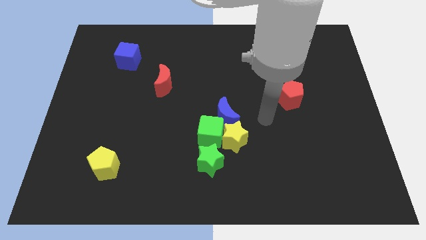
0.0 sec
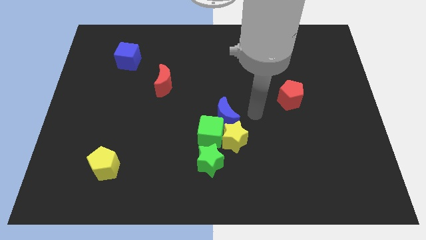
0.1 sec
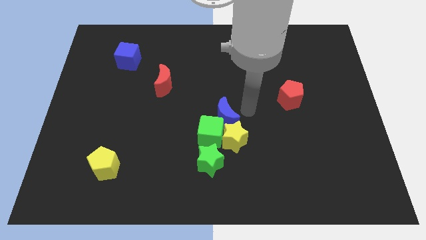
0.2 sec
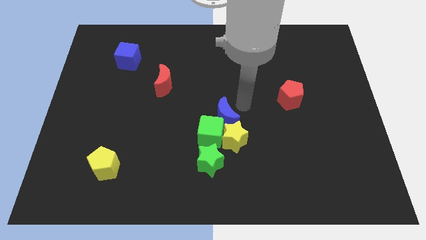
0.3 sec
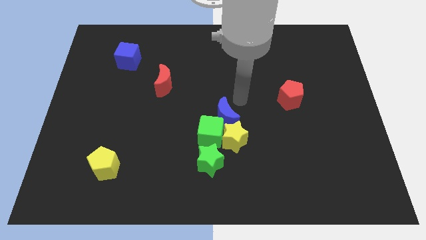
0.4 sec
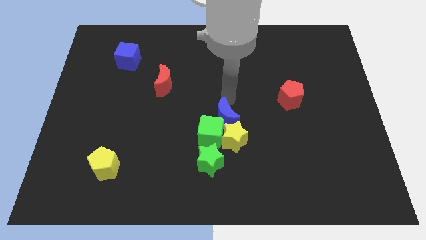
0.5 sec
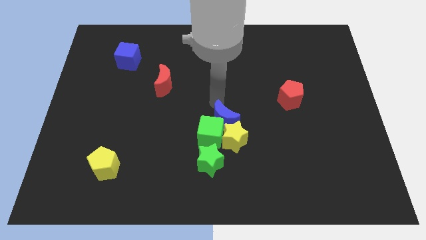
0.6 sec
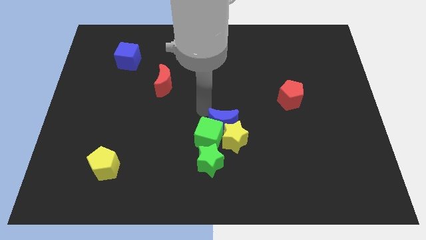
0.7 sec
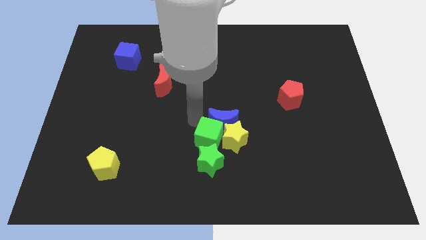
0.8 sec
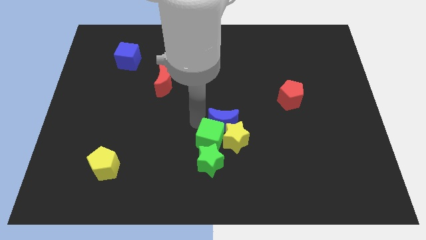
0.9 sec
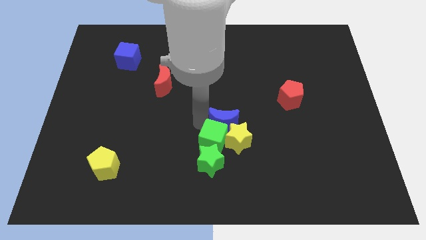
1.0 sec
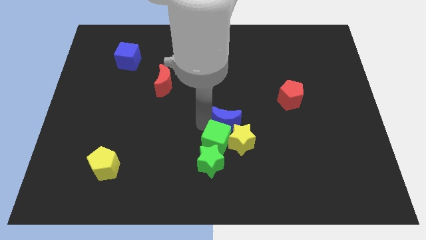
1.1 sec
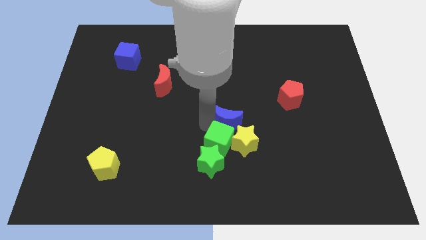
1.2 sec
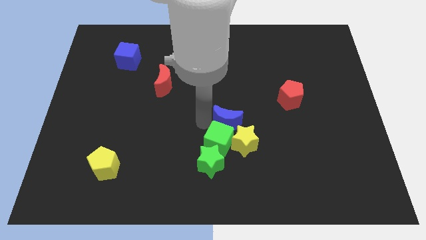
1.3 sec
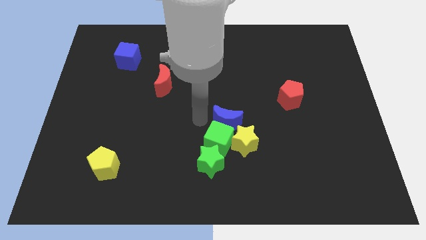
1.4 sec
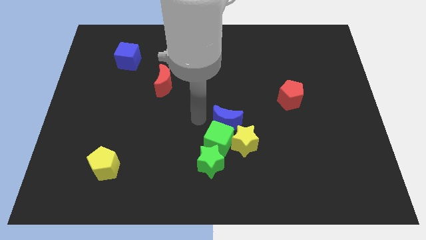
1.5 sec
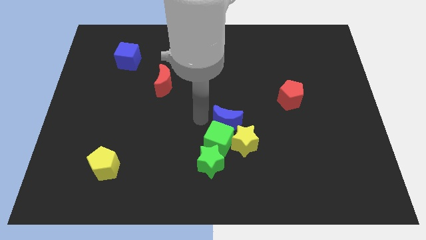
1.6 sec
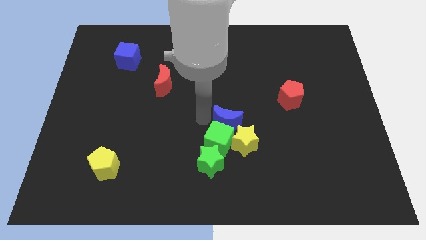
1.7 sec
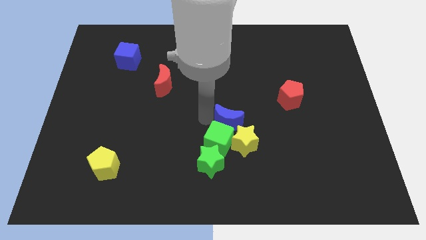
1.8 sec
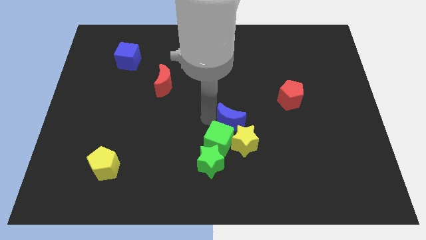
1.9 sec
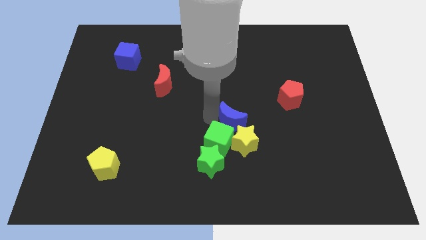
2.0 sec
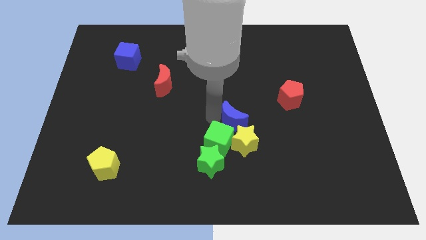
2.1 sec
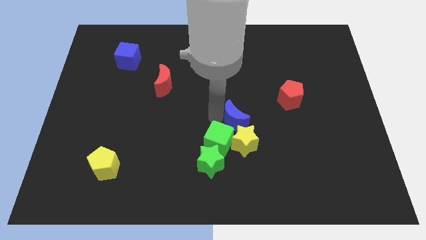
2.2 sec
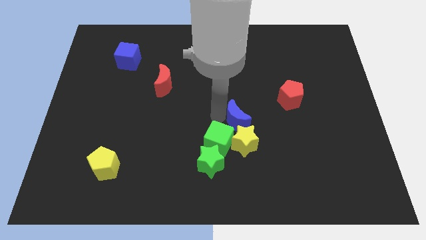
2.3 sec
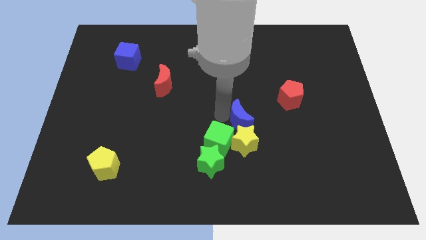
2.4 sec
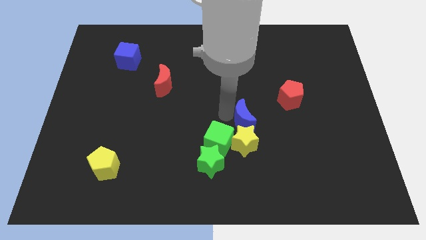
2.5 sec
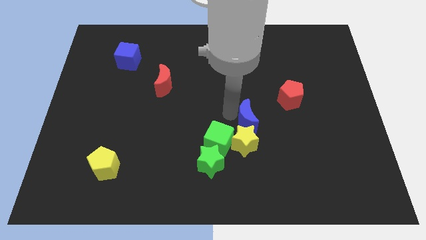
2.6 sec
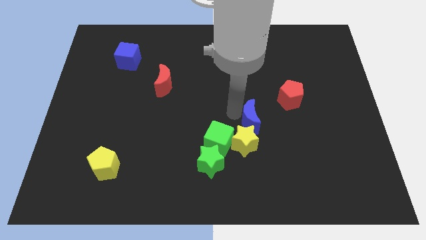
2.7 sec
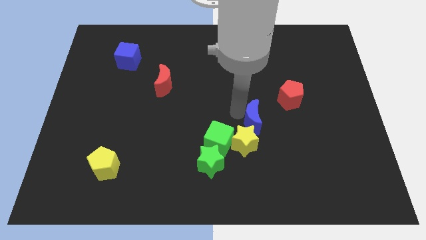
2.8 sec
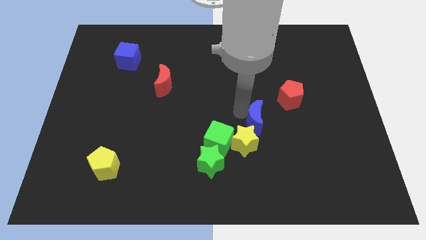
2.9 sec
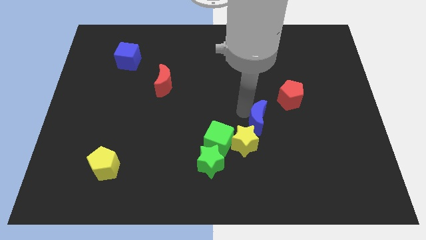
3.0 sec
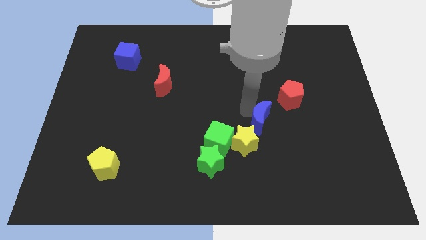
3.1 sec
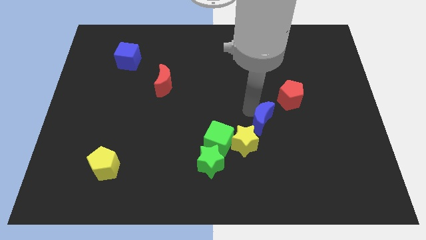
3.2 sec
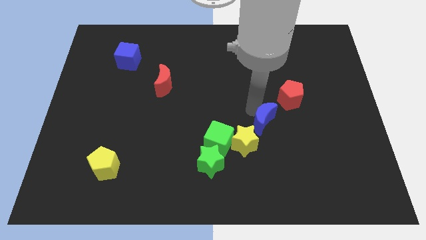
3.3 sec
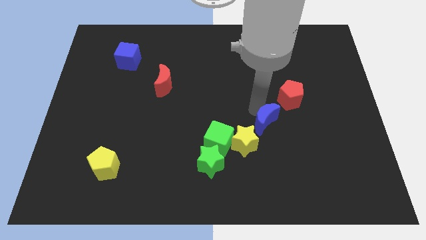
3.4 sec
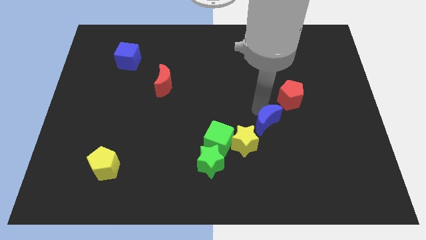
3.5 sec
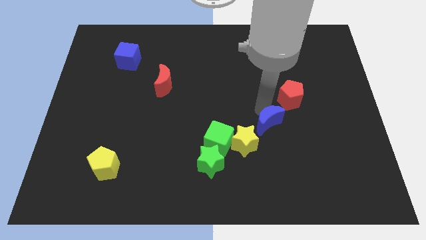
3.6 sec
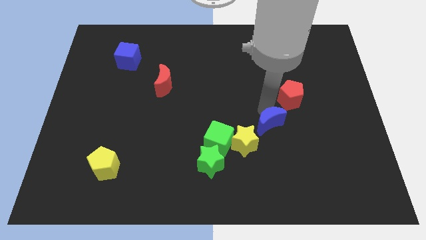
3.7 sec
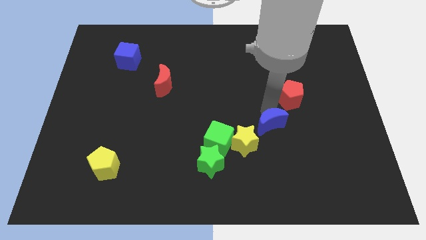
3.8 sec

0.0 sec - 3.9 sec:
slide the blue moon downwards and to the right slightly

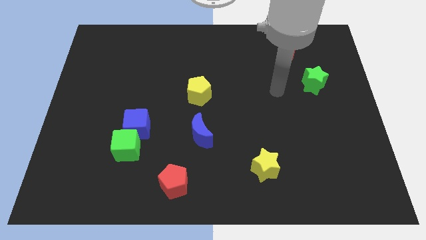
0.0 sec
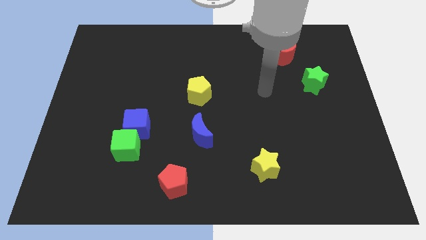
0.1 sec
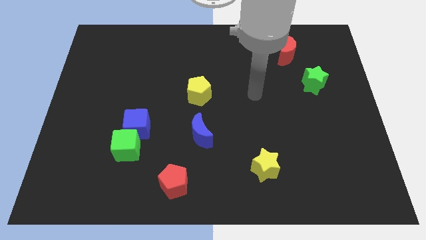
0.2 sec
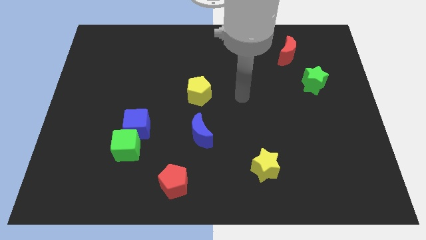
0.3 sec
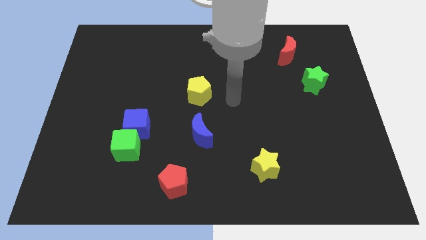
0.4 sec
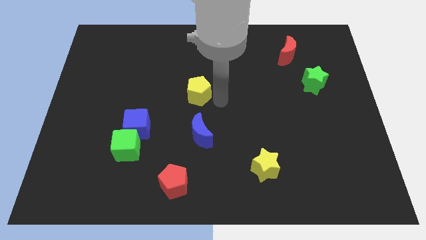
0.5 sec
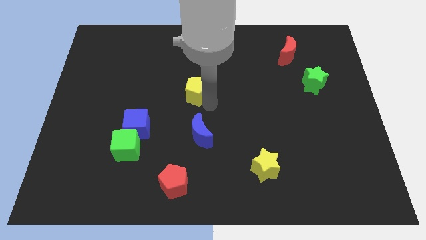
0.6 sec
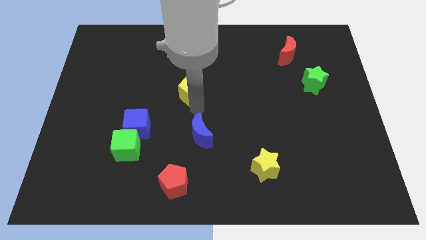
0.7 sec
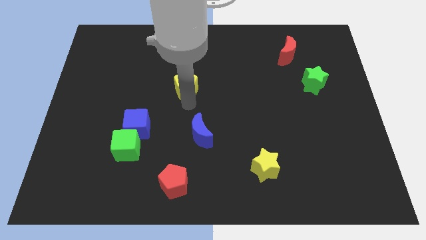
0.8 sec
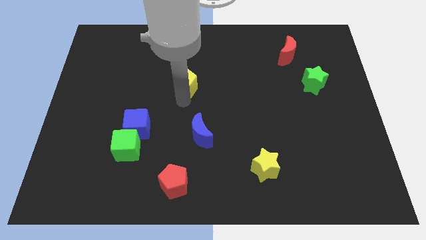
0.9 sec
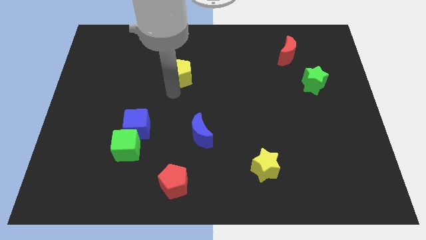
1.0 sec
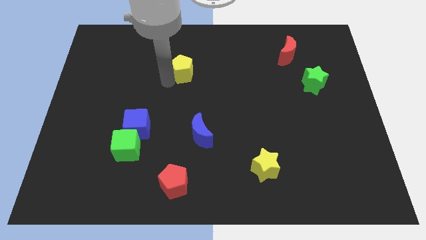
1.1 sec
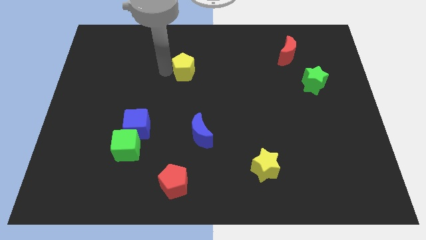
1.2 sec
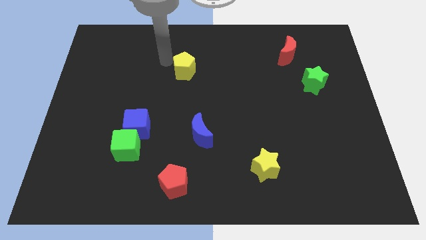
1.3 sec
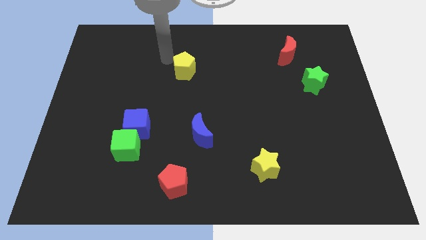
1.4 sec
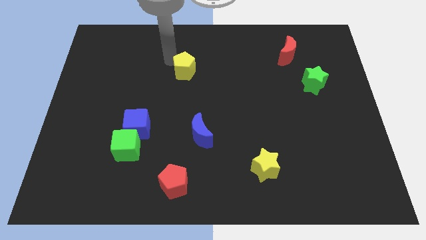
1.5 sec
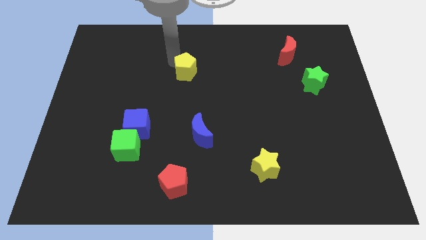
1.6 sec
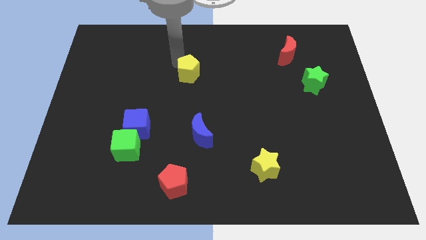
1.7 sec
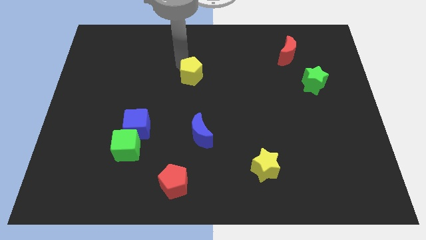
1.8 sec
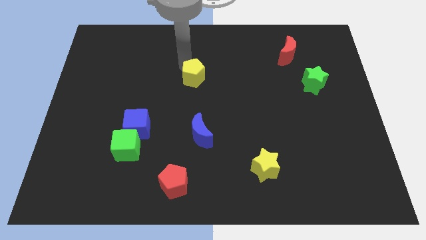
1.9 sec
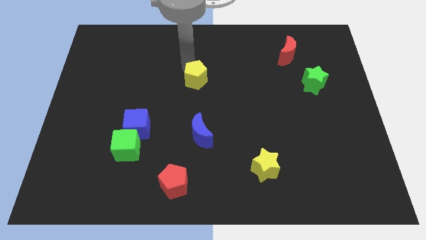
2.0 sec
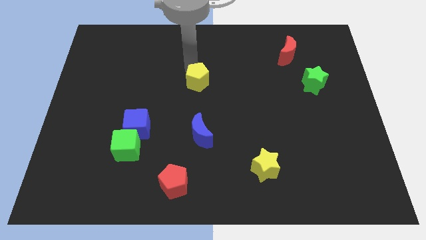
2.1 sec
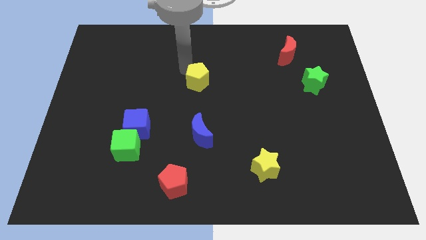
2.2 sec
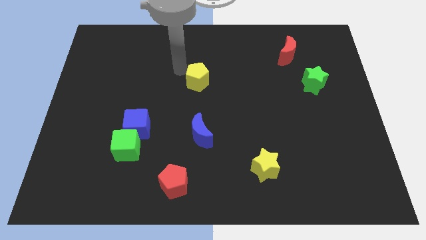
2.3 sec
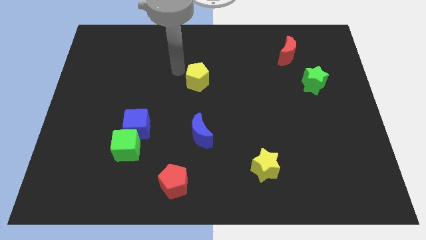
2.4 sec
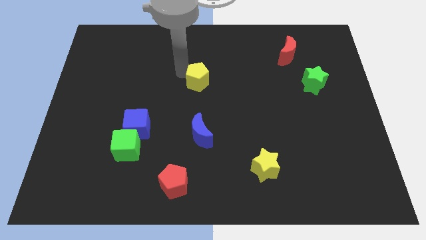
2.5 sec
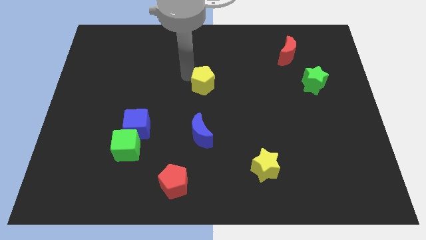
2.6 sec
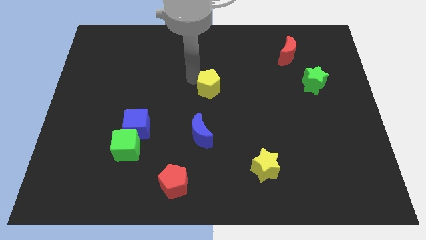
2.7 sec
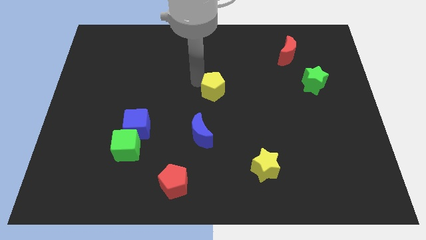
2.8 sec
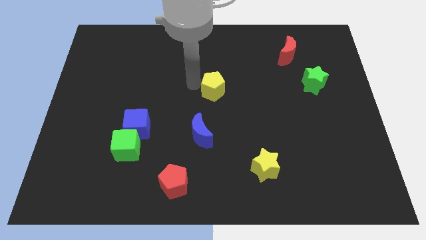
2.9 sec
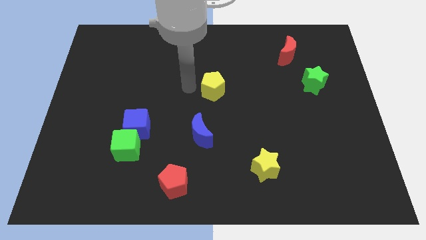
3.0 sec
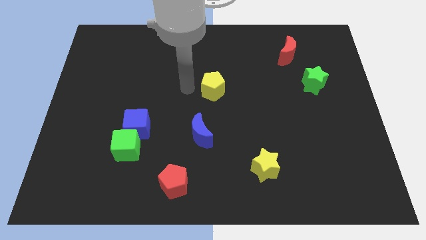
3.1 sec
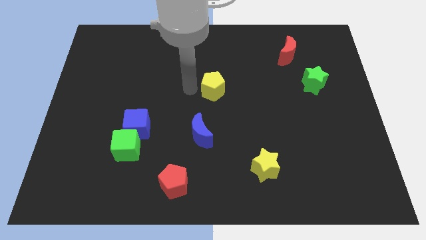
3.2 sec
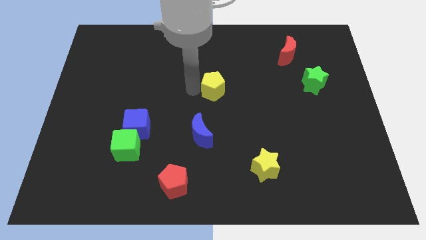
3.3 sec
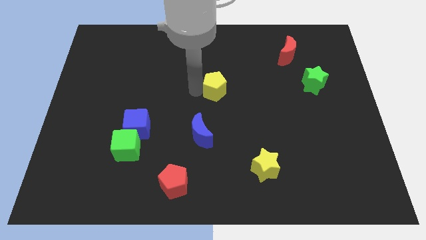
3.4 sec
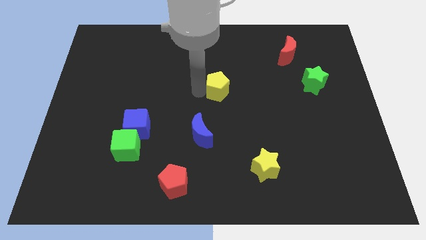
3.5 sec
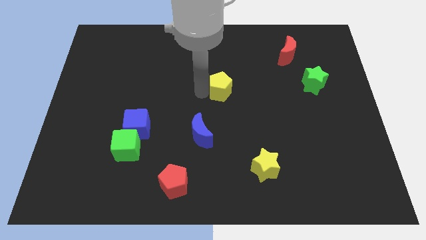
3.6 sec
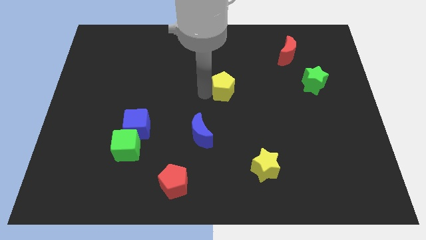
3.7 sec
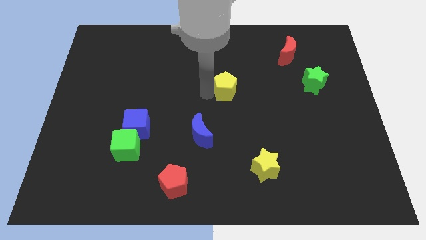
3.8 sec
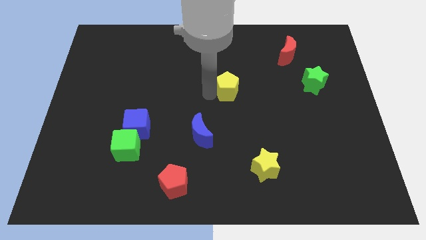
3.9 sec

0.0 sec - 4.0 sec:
slightly move the yellow pentagon to the right

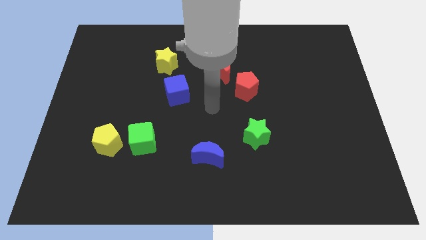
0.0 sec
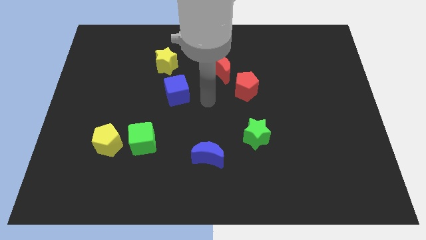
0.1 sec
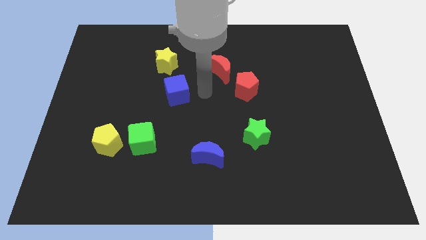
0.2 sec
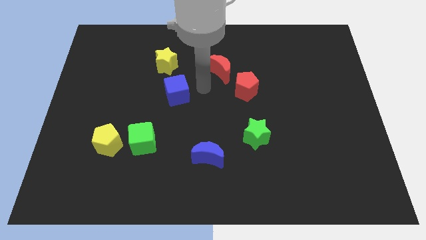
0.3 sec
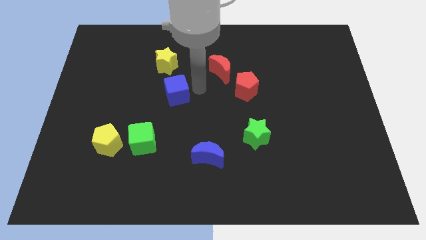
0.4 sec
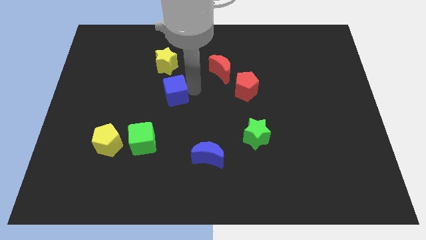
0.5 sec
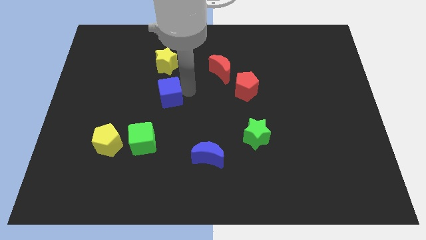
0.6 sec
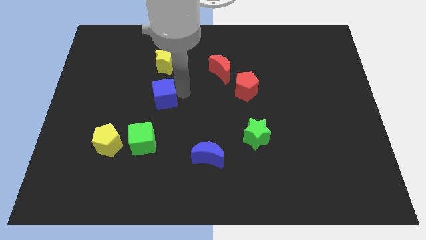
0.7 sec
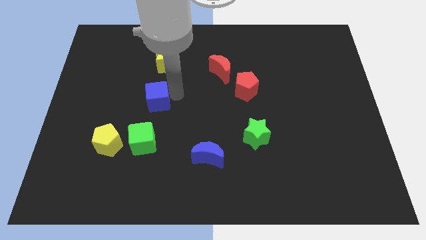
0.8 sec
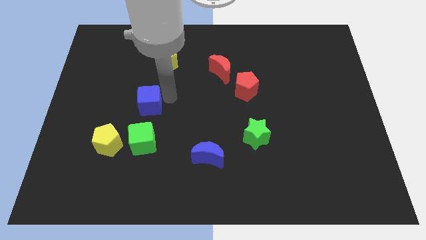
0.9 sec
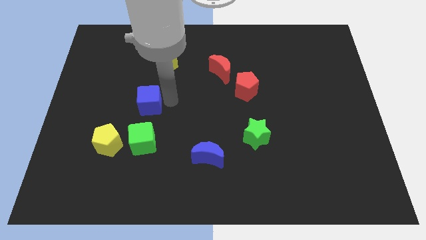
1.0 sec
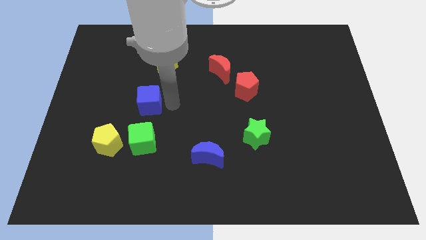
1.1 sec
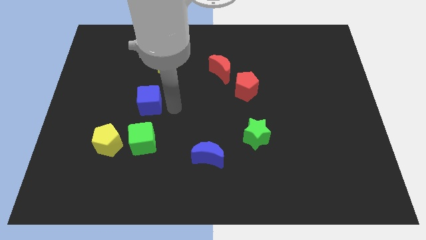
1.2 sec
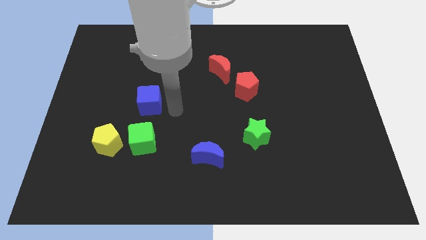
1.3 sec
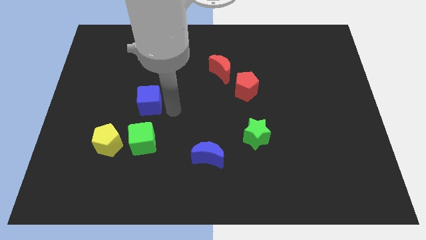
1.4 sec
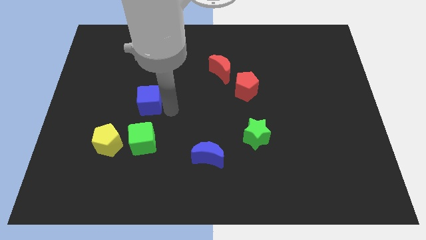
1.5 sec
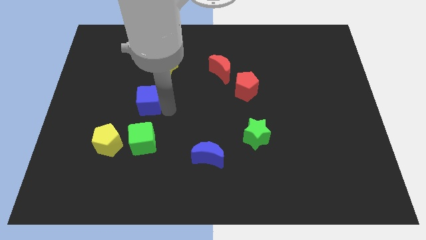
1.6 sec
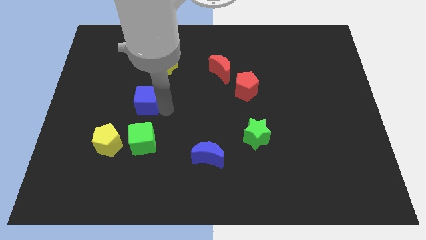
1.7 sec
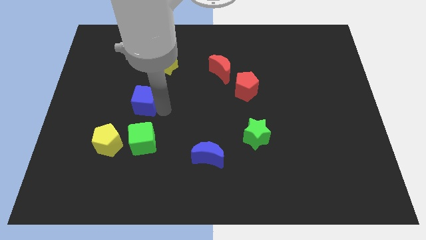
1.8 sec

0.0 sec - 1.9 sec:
slightly move the blue cube to the left
